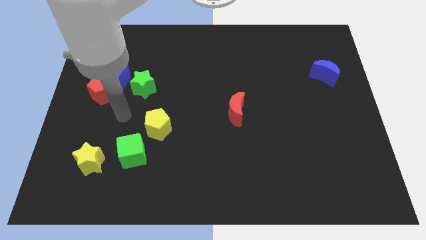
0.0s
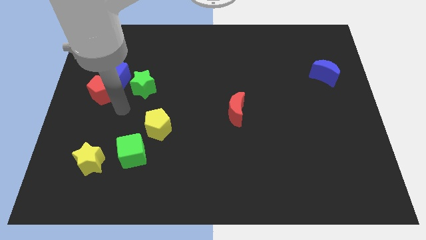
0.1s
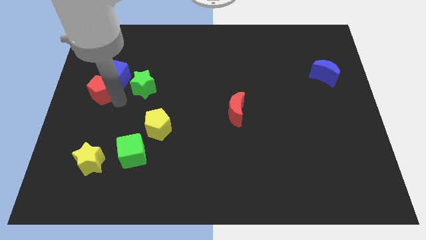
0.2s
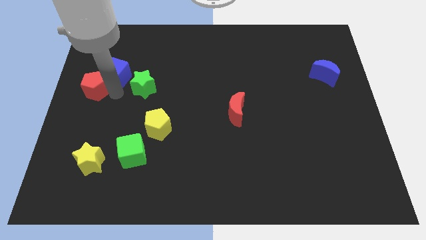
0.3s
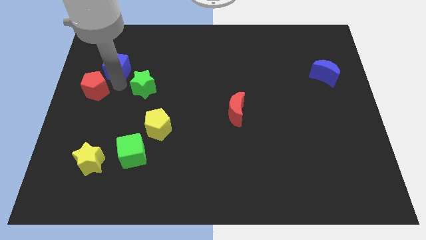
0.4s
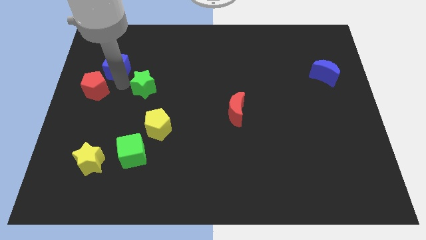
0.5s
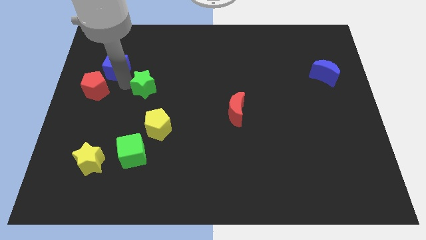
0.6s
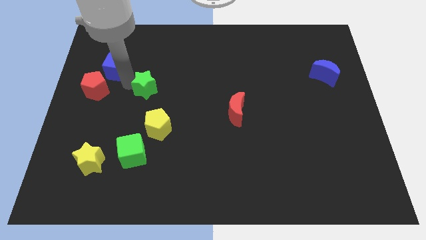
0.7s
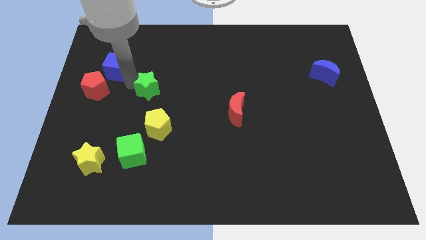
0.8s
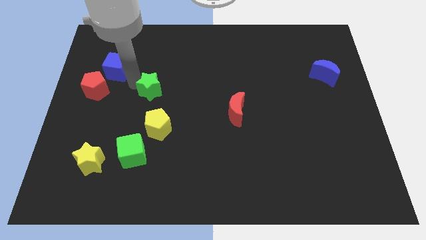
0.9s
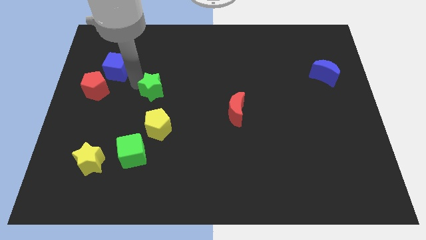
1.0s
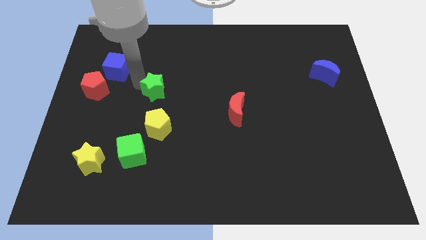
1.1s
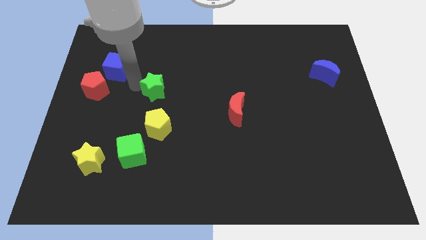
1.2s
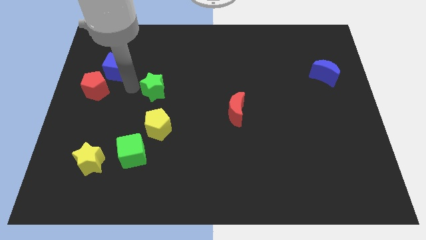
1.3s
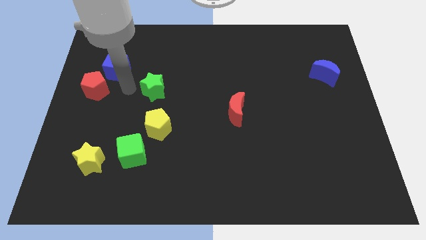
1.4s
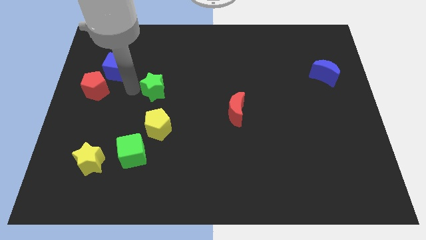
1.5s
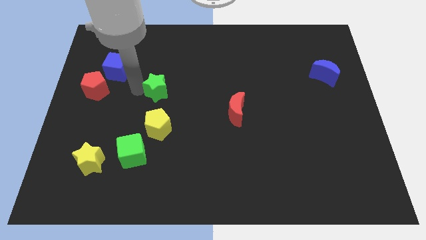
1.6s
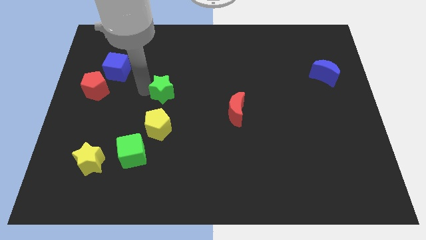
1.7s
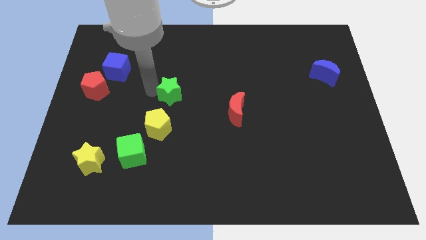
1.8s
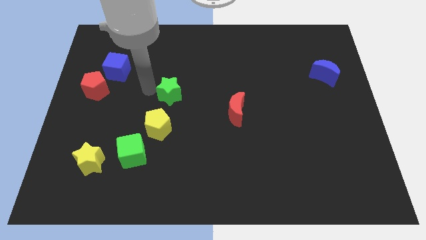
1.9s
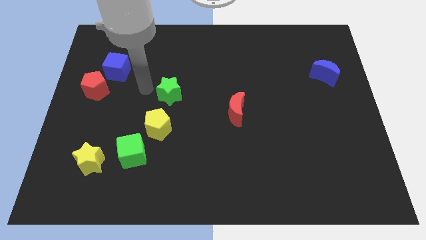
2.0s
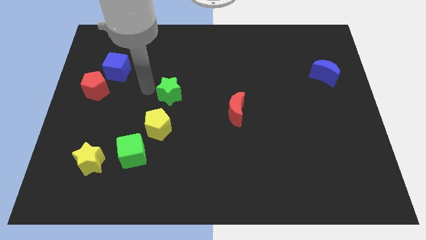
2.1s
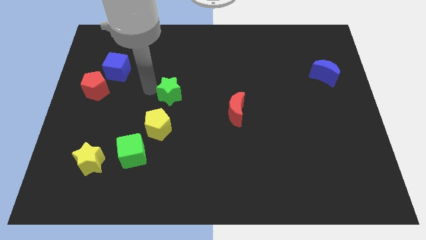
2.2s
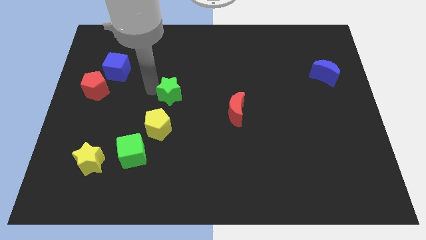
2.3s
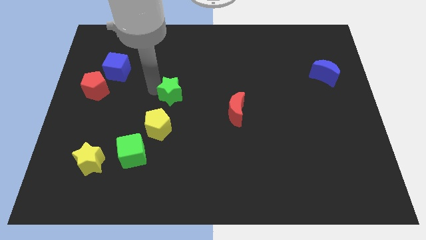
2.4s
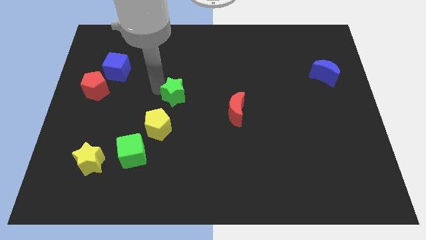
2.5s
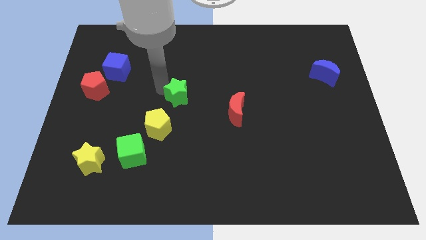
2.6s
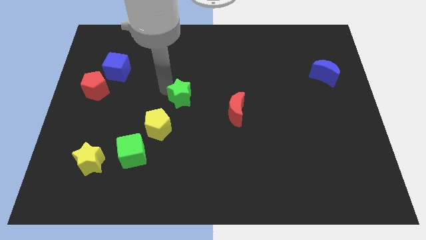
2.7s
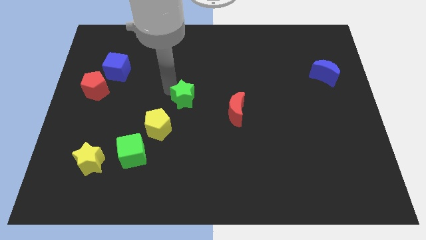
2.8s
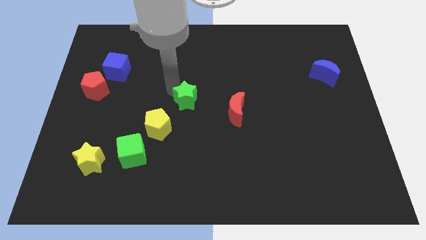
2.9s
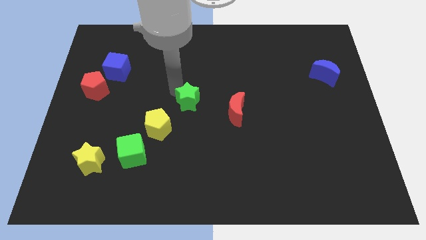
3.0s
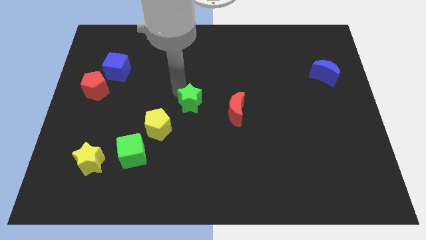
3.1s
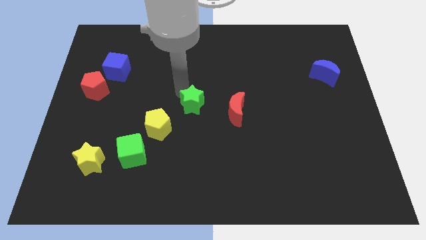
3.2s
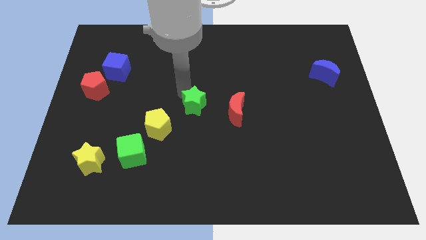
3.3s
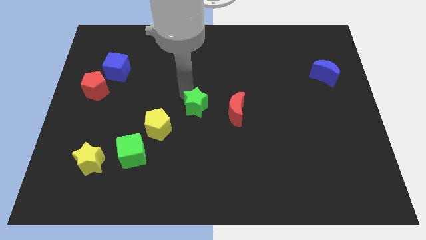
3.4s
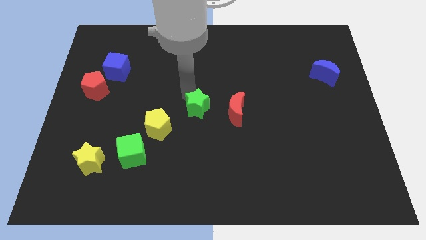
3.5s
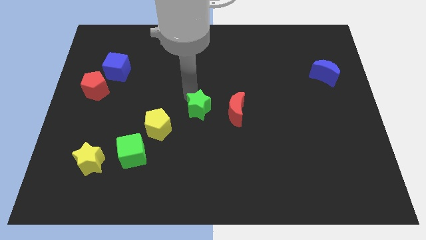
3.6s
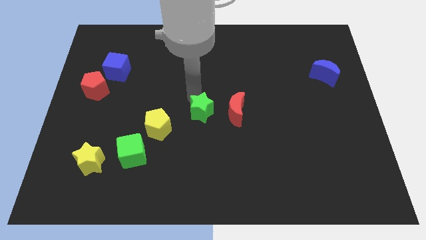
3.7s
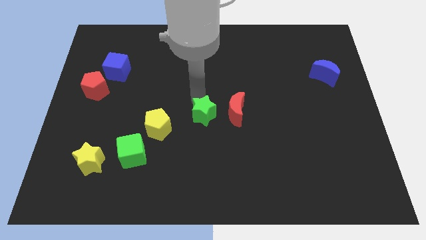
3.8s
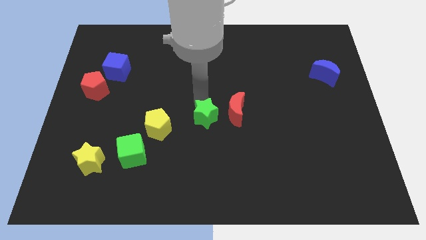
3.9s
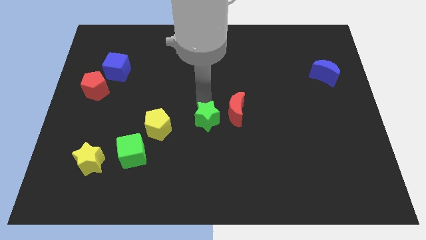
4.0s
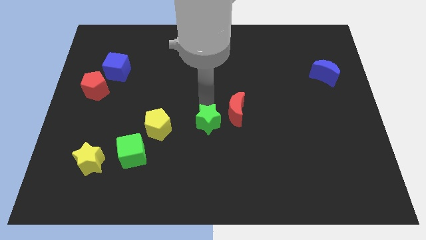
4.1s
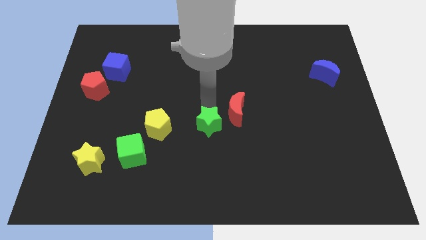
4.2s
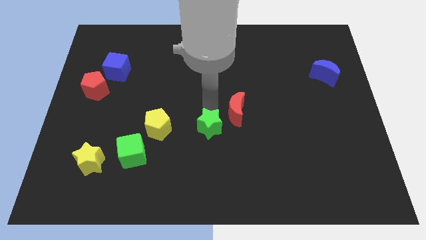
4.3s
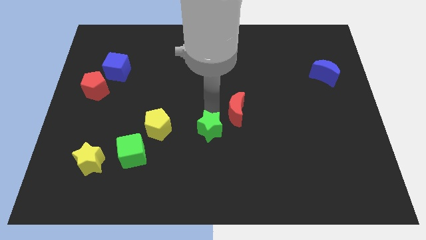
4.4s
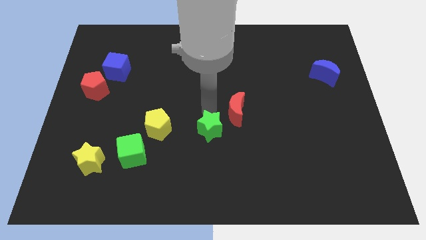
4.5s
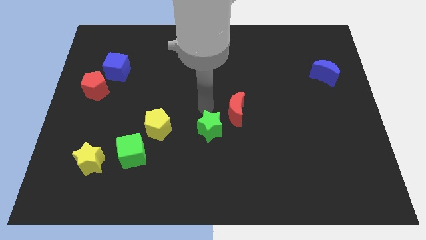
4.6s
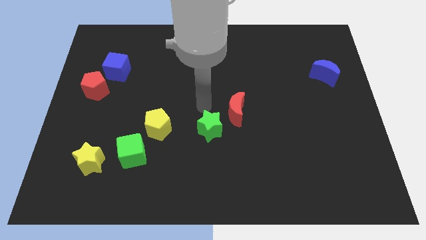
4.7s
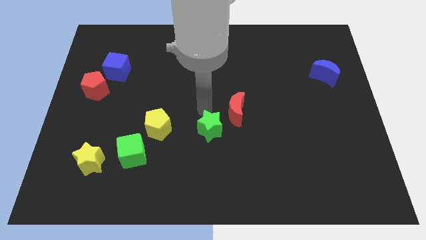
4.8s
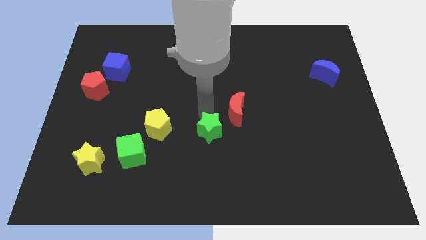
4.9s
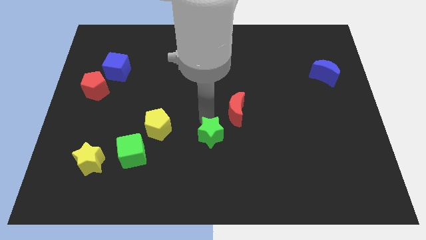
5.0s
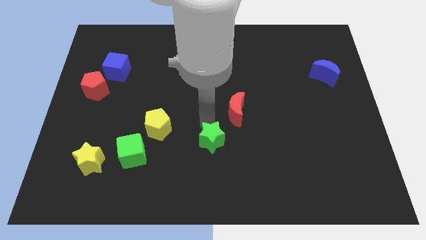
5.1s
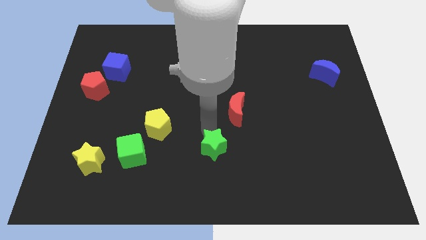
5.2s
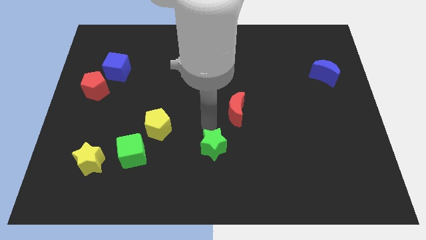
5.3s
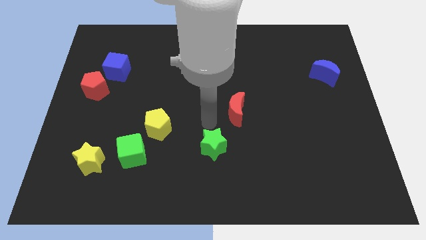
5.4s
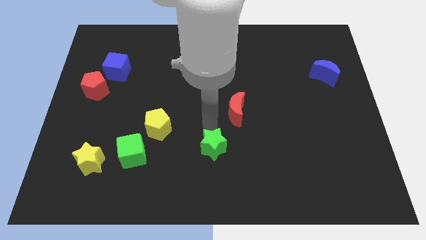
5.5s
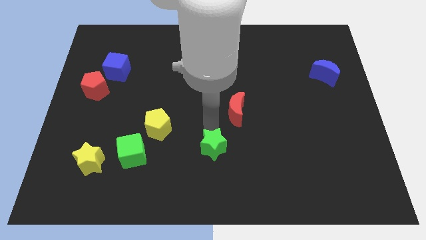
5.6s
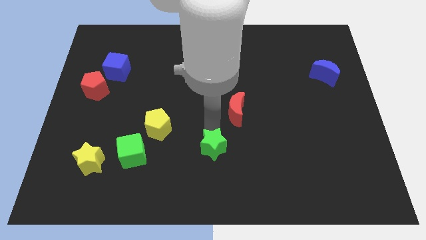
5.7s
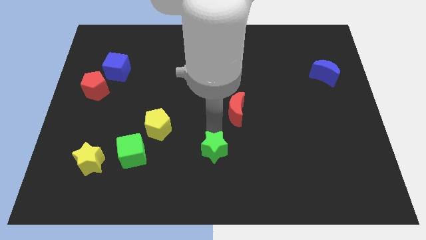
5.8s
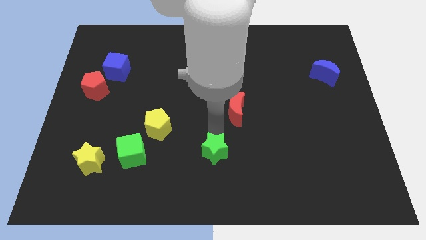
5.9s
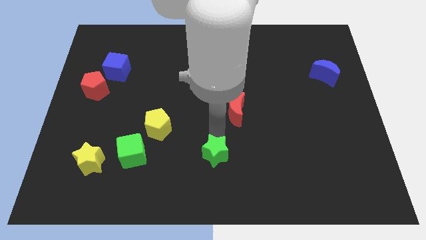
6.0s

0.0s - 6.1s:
put the green star to the bottom
